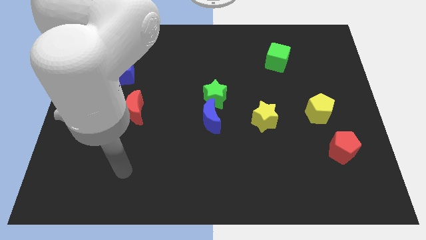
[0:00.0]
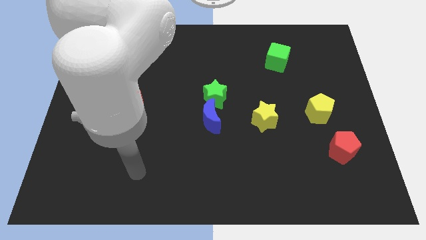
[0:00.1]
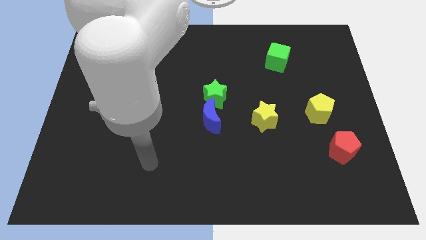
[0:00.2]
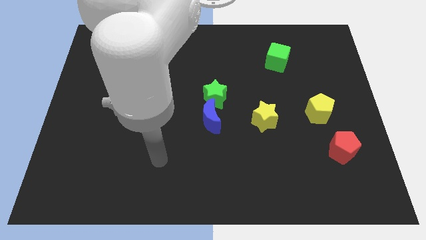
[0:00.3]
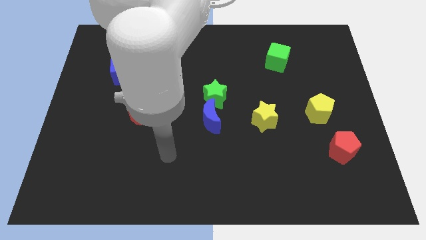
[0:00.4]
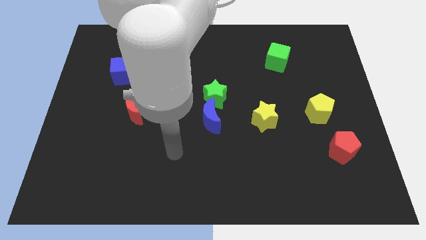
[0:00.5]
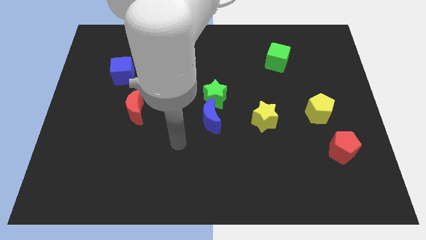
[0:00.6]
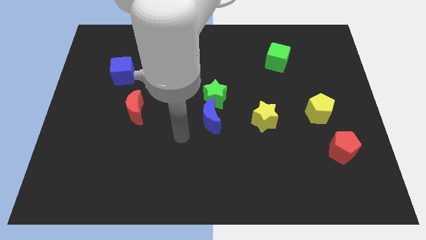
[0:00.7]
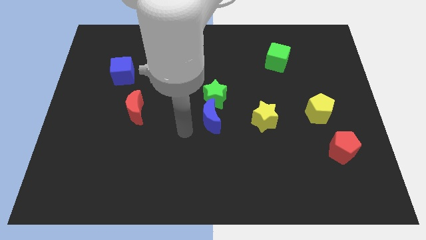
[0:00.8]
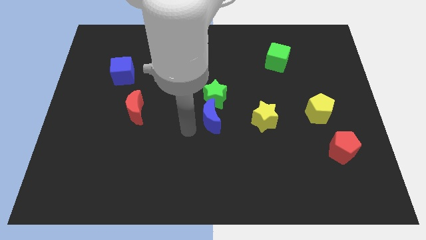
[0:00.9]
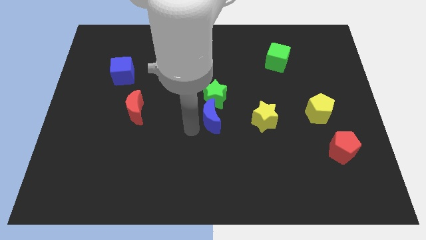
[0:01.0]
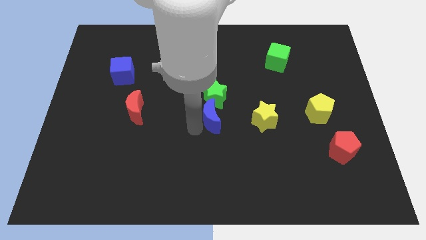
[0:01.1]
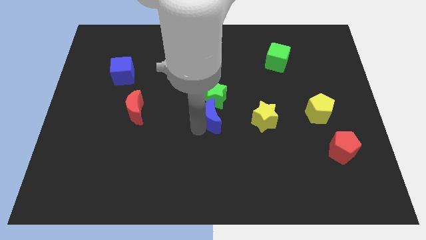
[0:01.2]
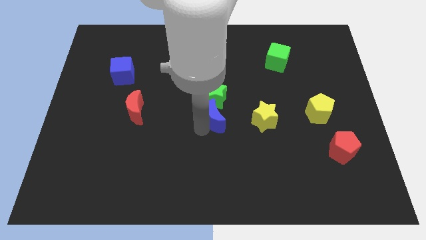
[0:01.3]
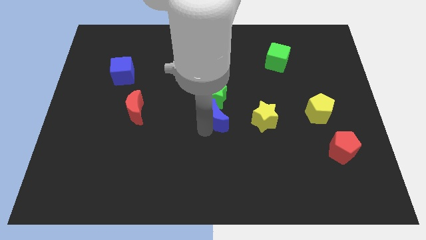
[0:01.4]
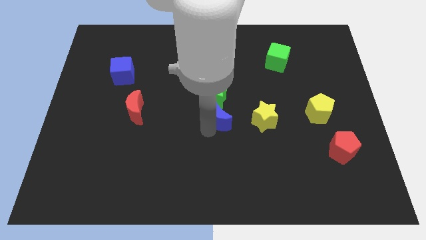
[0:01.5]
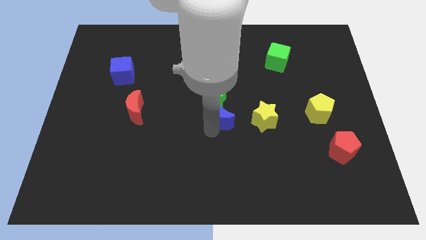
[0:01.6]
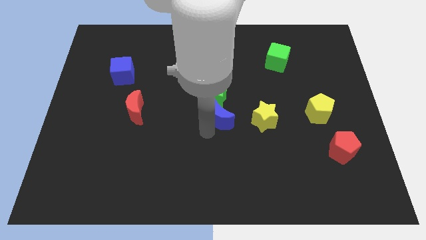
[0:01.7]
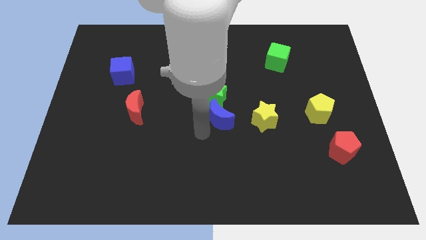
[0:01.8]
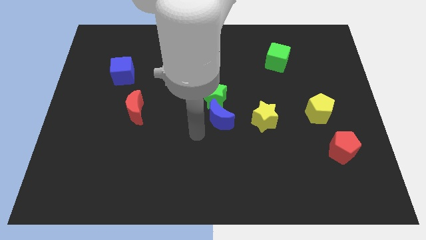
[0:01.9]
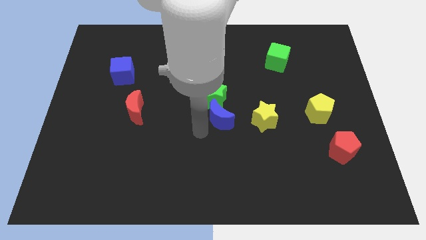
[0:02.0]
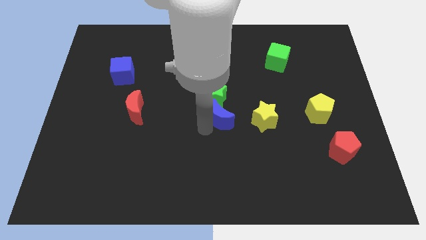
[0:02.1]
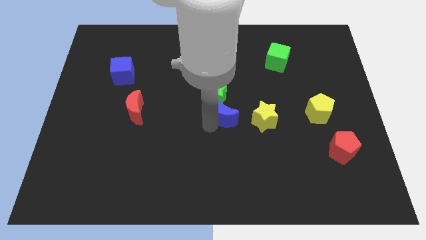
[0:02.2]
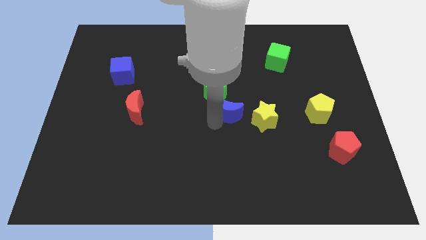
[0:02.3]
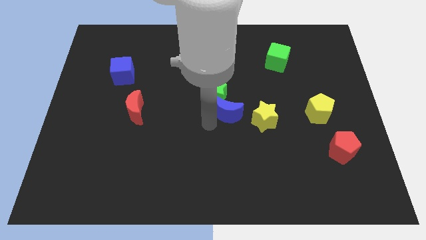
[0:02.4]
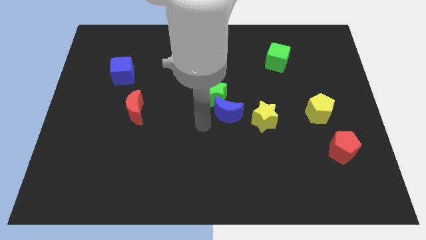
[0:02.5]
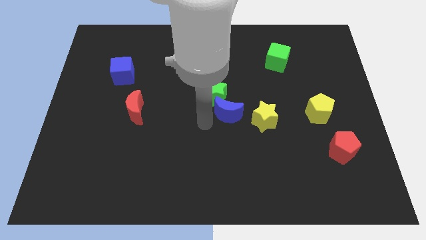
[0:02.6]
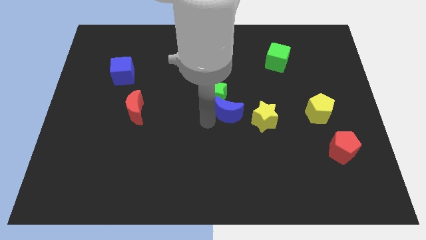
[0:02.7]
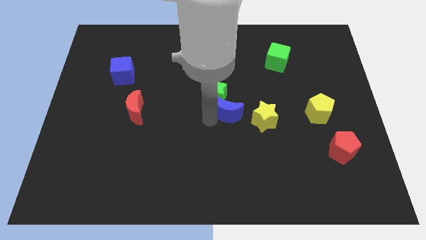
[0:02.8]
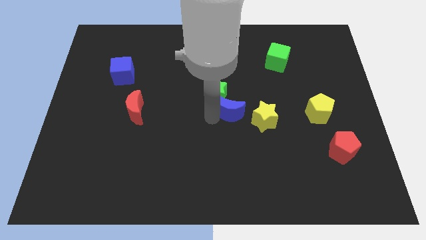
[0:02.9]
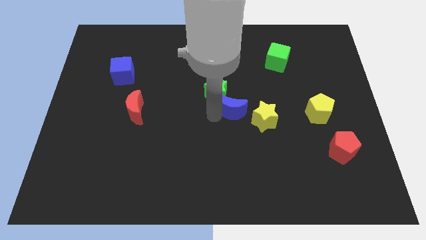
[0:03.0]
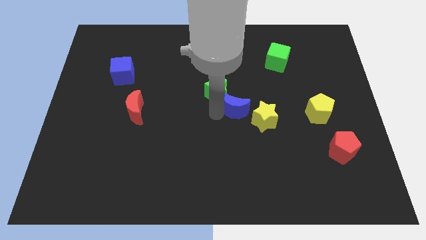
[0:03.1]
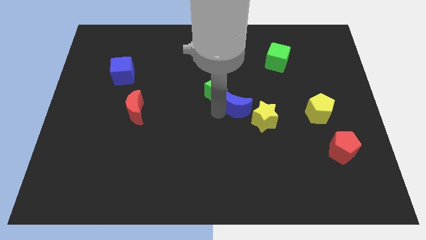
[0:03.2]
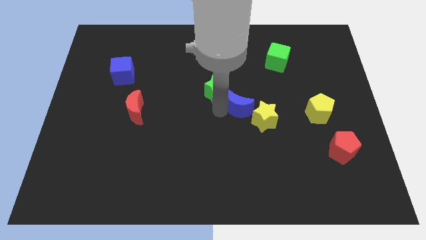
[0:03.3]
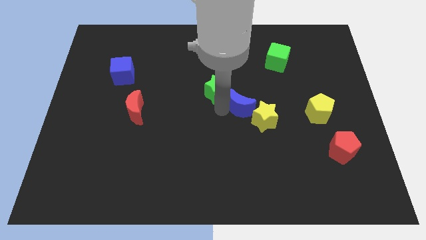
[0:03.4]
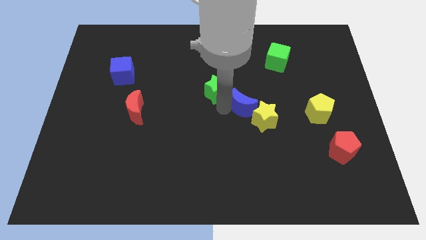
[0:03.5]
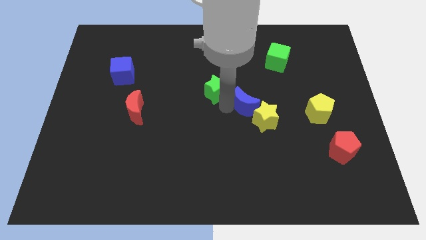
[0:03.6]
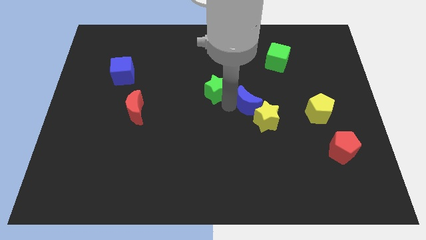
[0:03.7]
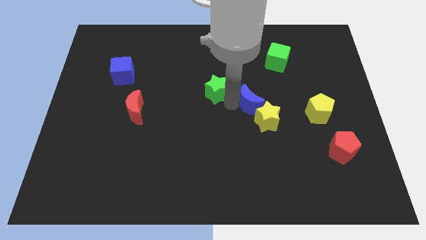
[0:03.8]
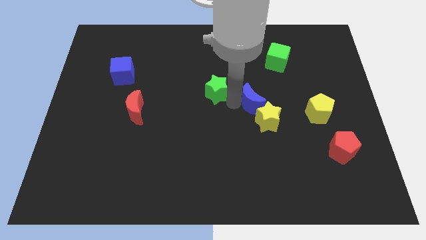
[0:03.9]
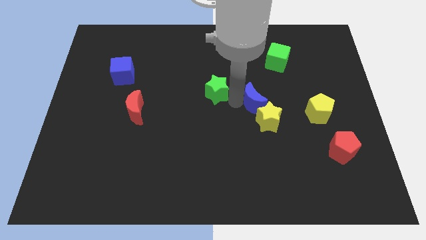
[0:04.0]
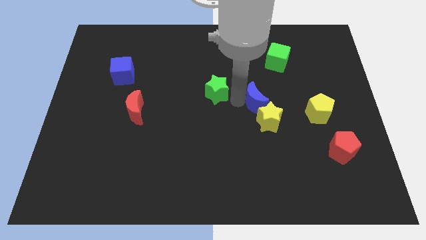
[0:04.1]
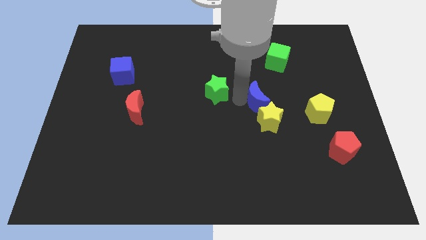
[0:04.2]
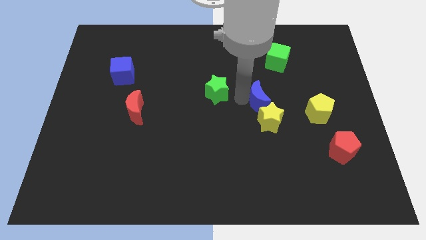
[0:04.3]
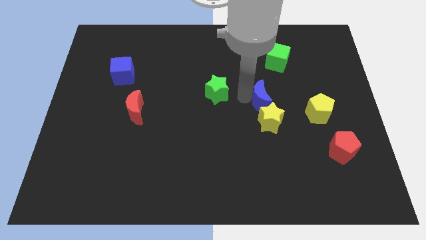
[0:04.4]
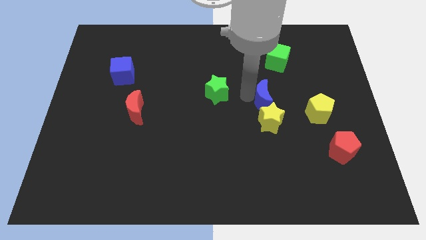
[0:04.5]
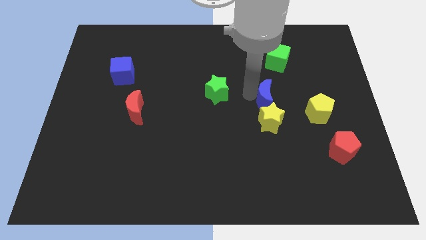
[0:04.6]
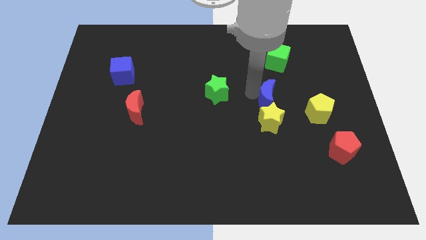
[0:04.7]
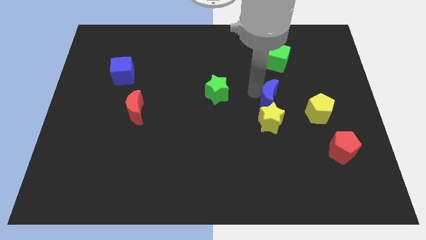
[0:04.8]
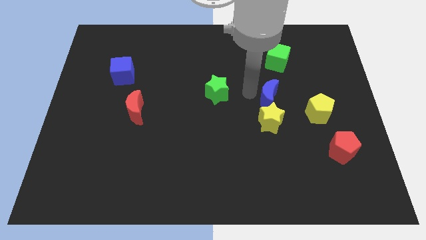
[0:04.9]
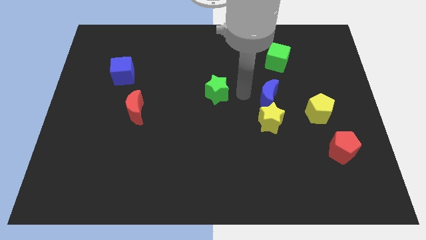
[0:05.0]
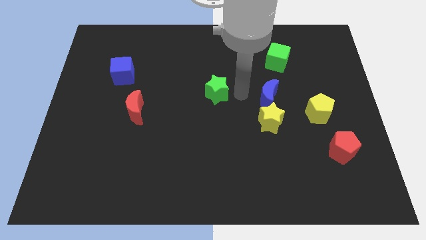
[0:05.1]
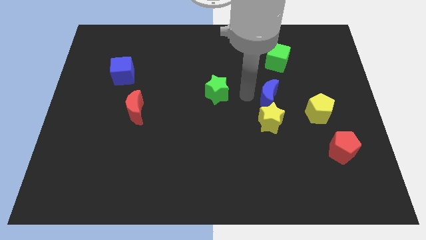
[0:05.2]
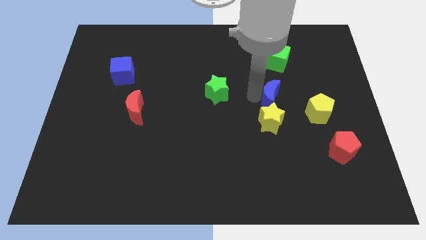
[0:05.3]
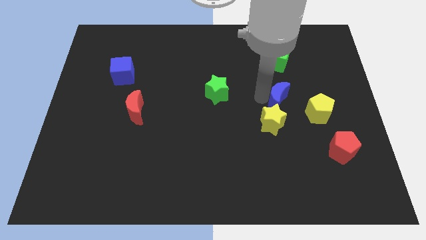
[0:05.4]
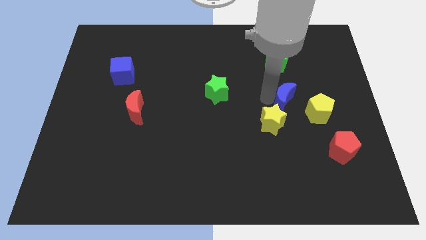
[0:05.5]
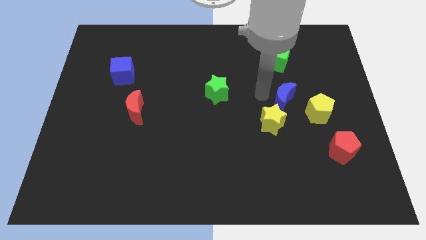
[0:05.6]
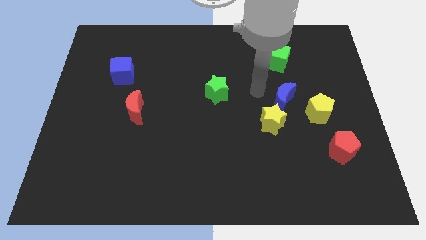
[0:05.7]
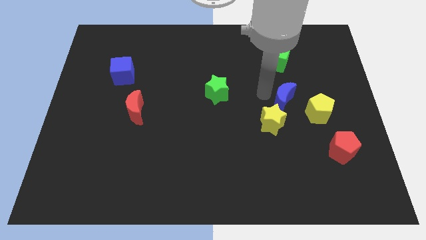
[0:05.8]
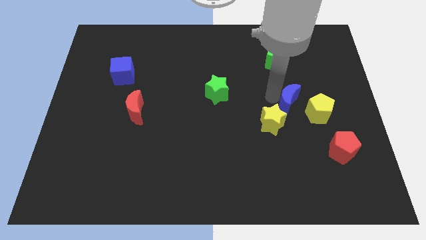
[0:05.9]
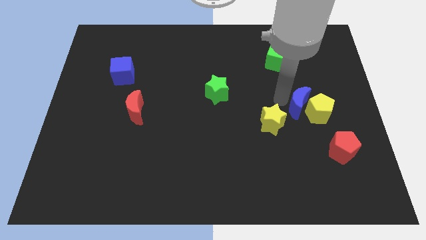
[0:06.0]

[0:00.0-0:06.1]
push the blue moon to the yellow pentagon

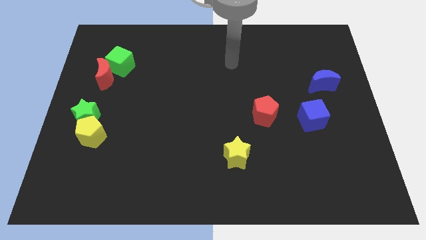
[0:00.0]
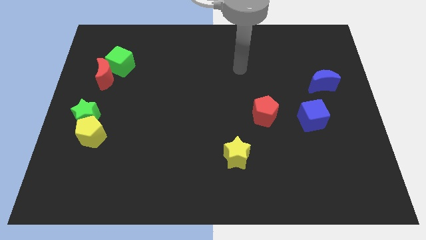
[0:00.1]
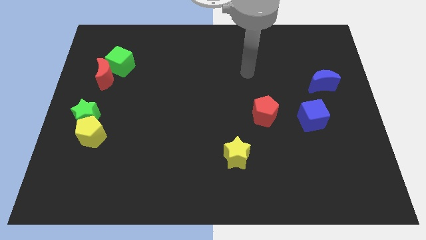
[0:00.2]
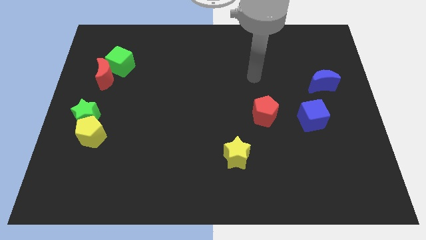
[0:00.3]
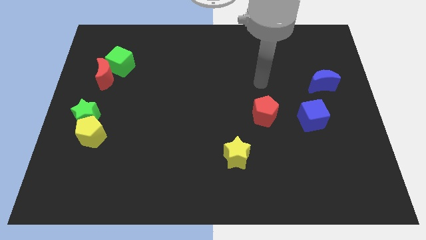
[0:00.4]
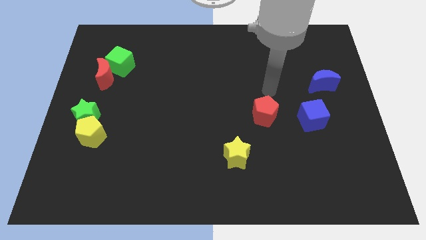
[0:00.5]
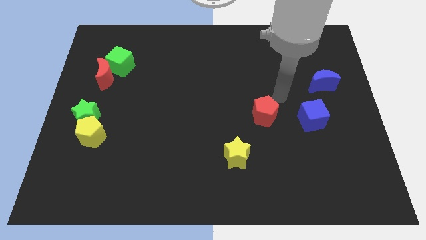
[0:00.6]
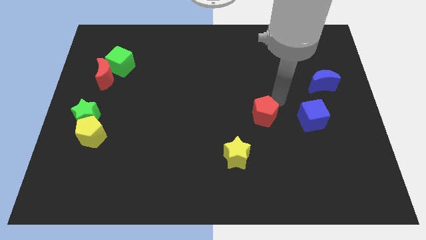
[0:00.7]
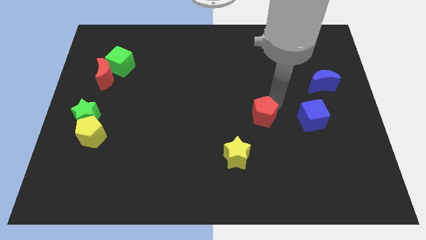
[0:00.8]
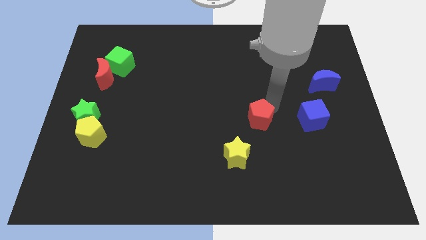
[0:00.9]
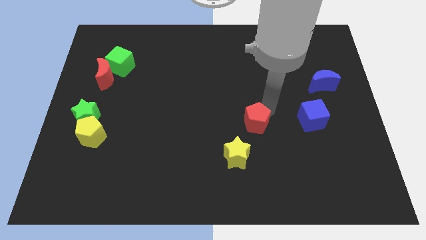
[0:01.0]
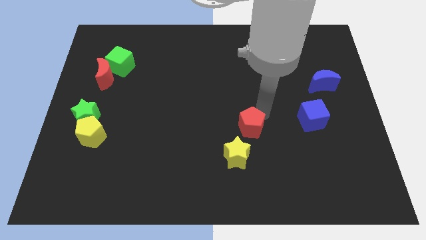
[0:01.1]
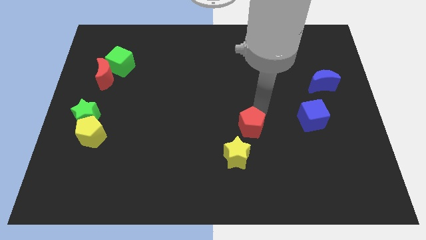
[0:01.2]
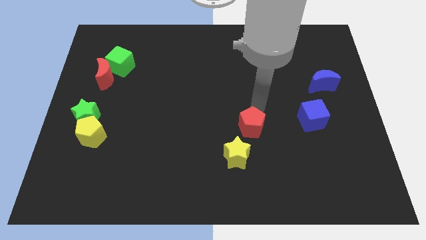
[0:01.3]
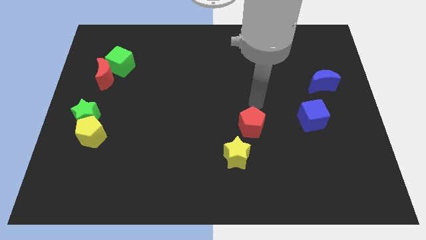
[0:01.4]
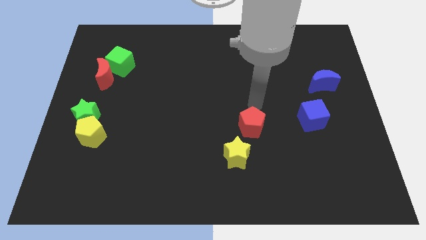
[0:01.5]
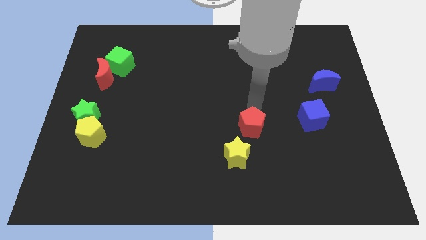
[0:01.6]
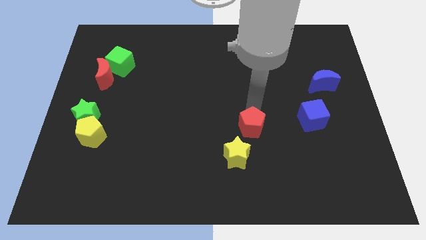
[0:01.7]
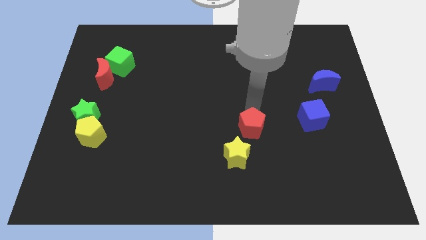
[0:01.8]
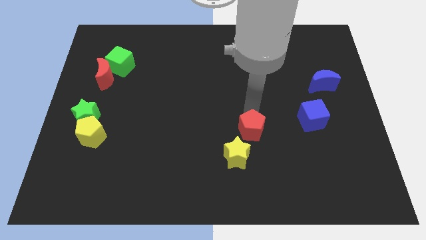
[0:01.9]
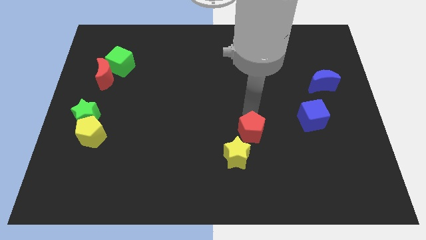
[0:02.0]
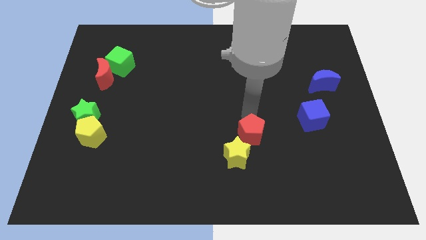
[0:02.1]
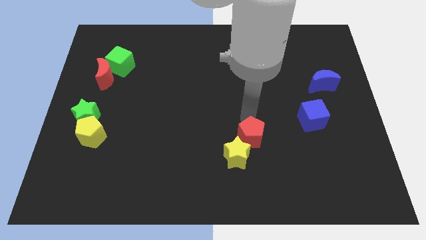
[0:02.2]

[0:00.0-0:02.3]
put the red pentagon to the yellow star
